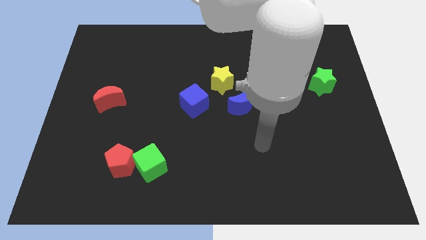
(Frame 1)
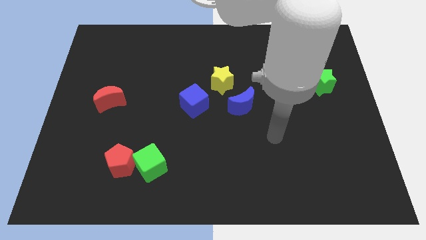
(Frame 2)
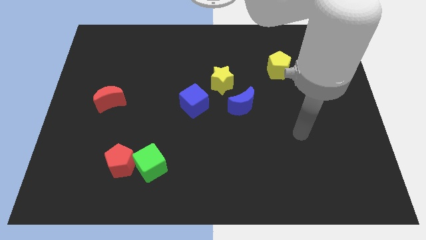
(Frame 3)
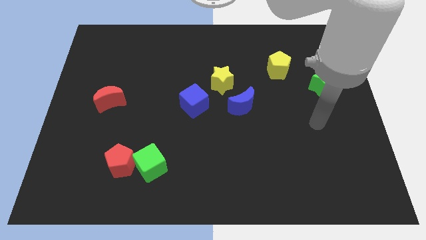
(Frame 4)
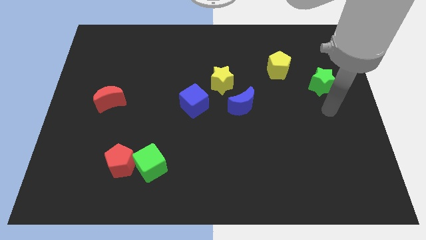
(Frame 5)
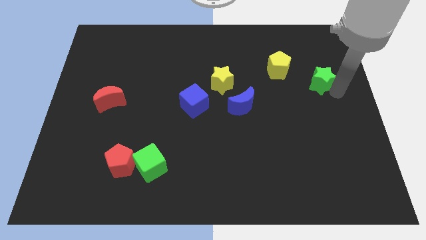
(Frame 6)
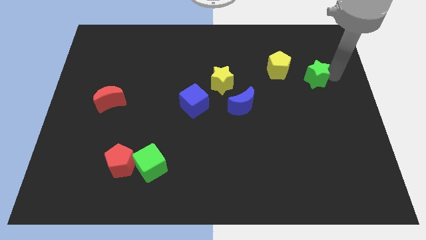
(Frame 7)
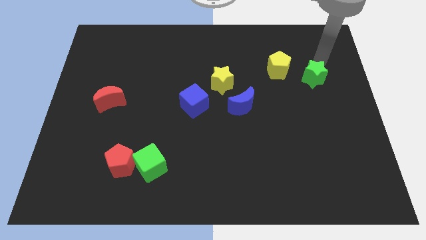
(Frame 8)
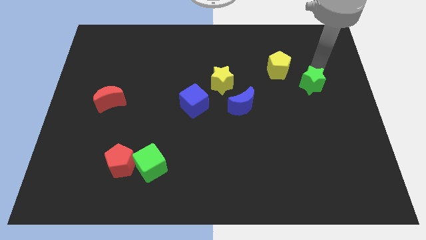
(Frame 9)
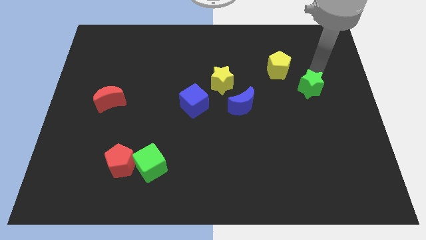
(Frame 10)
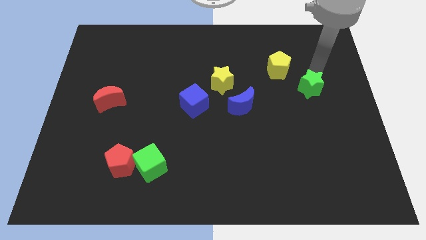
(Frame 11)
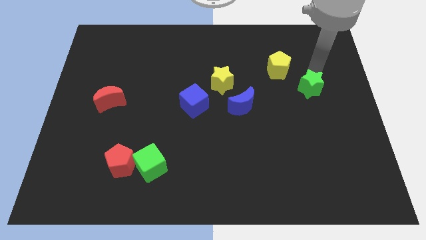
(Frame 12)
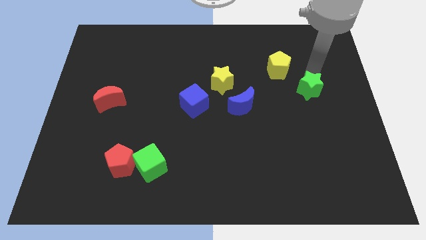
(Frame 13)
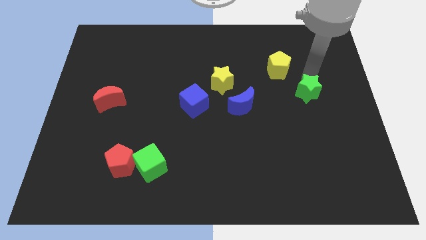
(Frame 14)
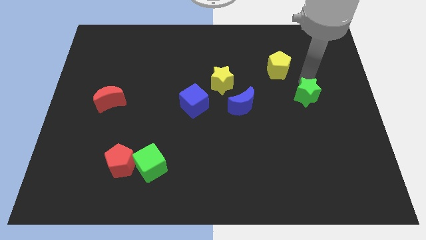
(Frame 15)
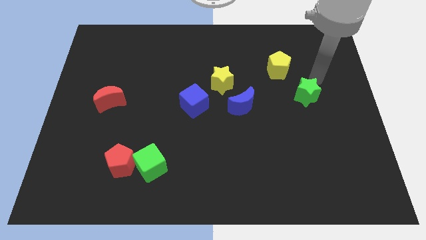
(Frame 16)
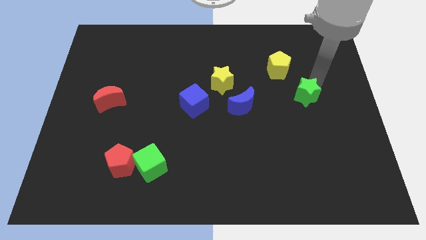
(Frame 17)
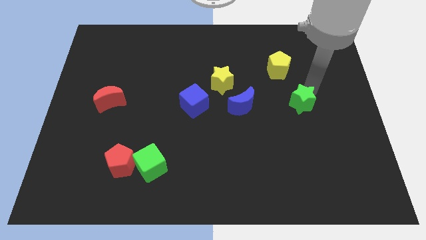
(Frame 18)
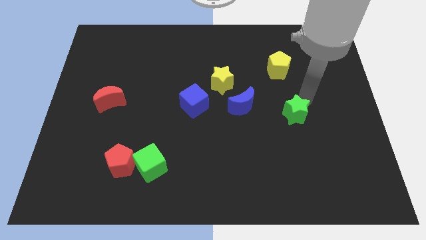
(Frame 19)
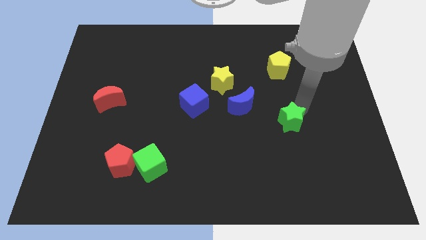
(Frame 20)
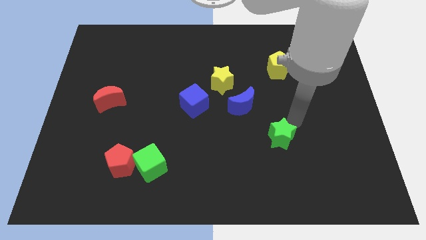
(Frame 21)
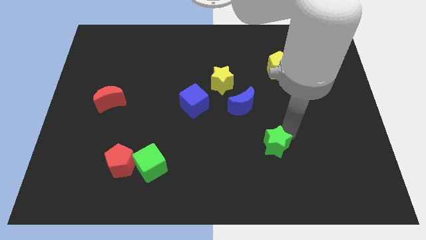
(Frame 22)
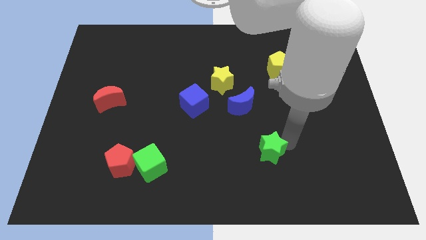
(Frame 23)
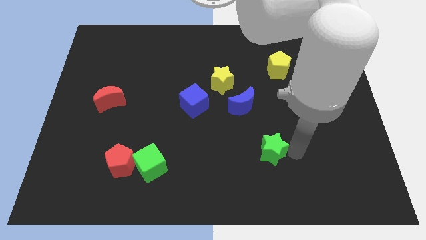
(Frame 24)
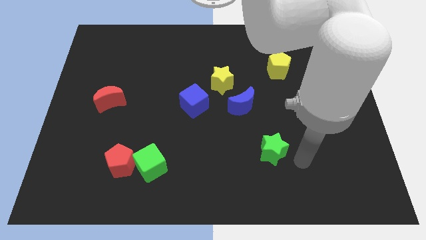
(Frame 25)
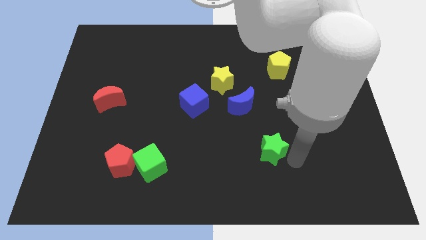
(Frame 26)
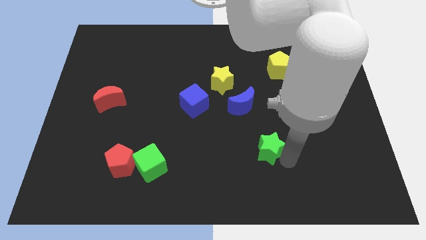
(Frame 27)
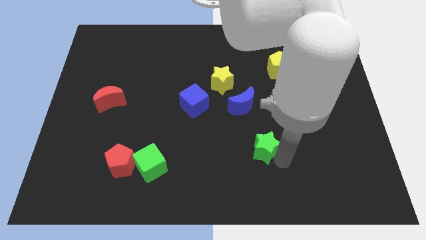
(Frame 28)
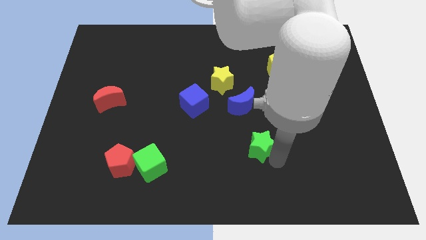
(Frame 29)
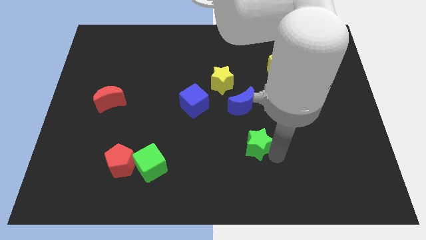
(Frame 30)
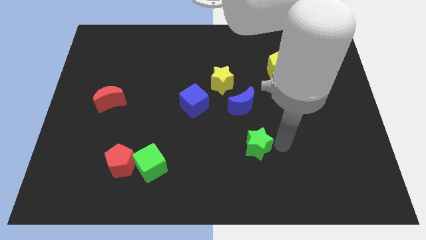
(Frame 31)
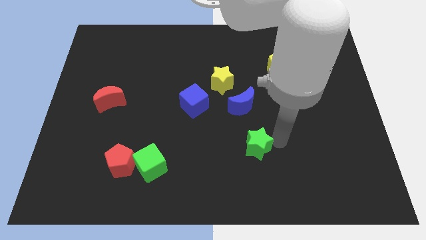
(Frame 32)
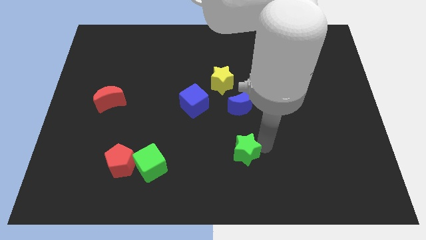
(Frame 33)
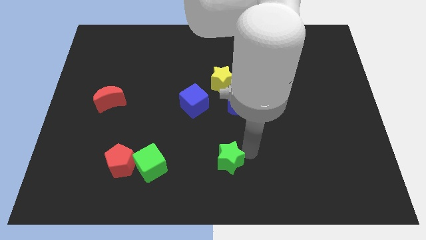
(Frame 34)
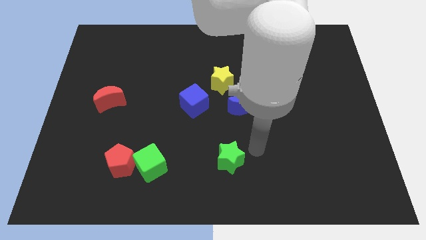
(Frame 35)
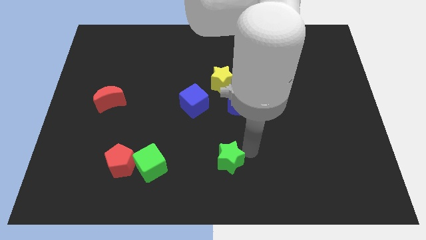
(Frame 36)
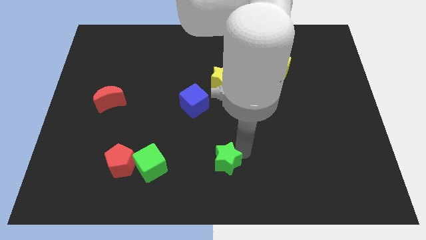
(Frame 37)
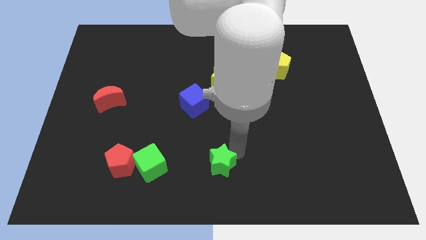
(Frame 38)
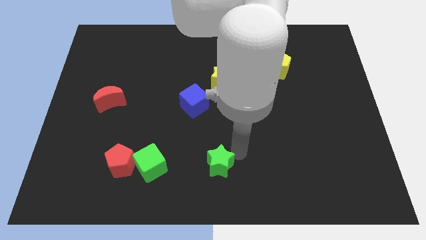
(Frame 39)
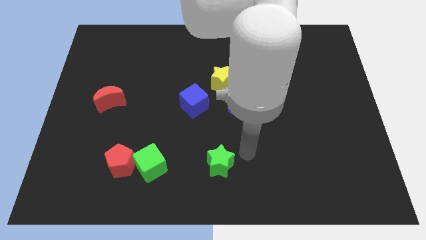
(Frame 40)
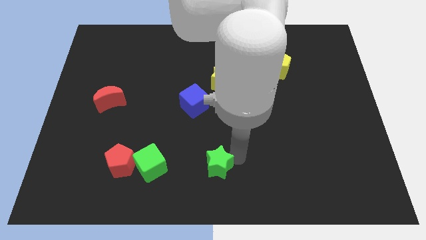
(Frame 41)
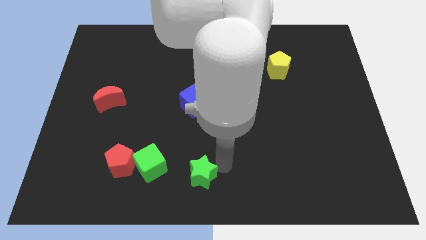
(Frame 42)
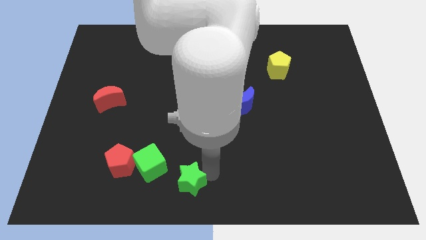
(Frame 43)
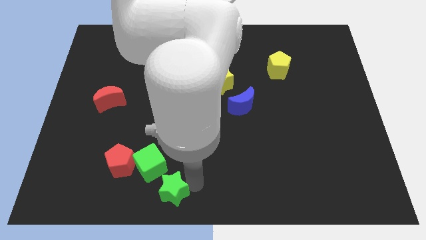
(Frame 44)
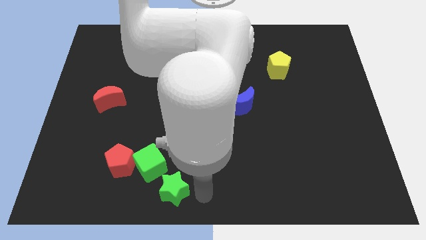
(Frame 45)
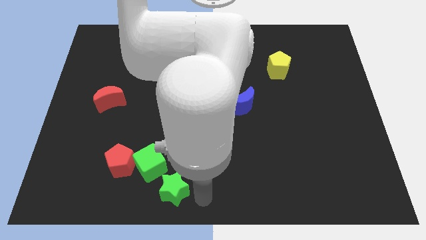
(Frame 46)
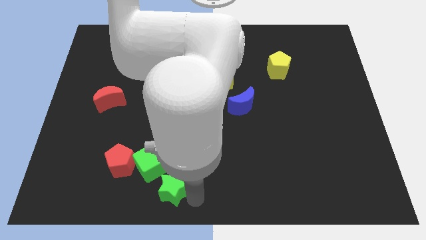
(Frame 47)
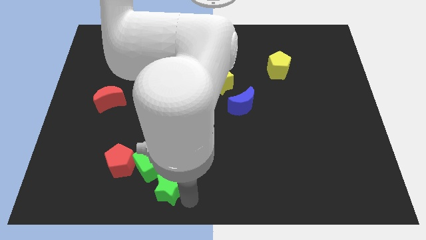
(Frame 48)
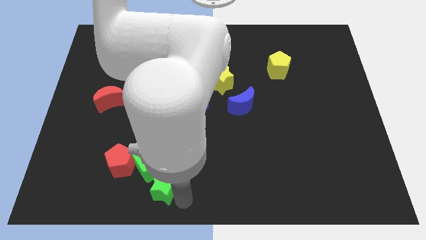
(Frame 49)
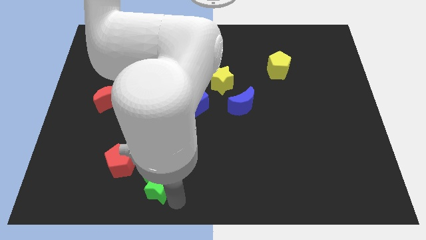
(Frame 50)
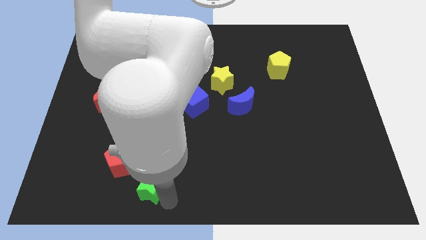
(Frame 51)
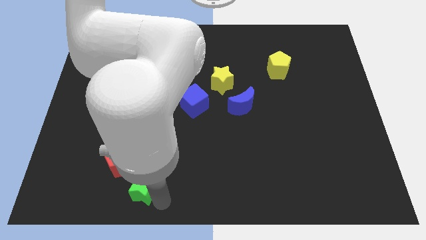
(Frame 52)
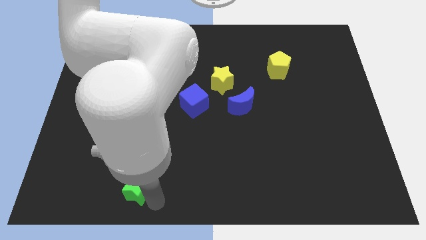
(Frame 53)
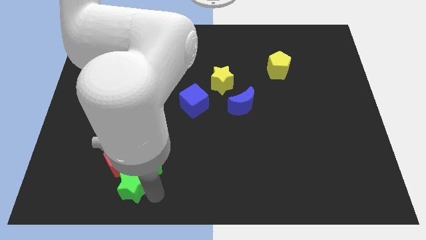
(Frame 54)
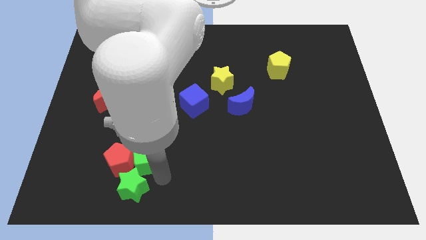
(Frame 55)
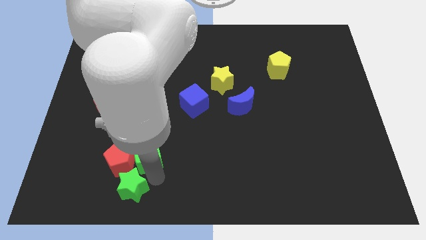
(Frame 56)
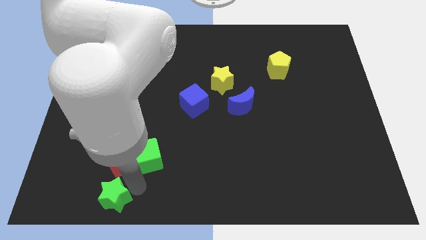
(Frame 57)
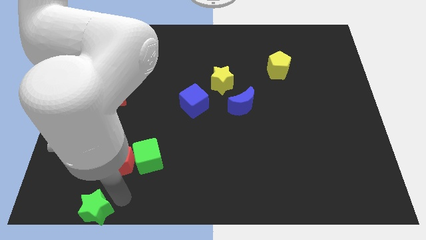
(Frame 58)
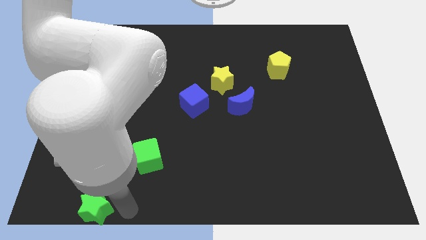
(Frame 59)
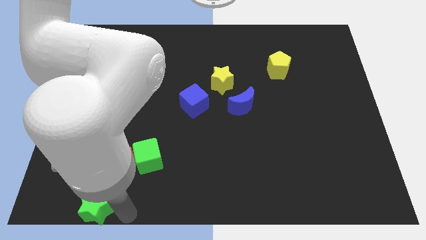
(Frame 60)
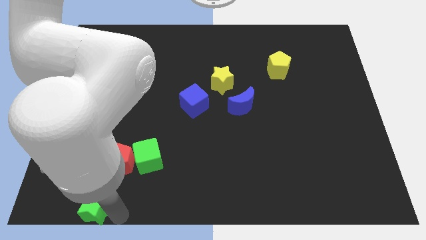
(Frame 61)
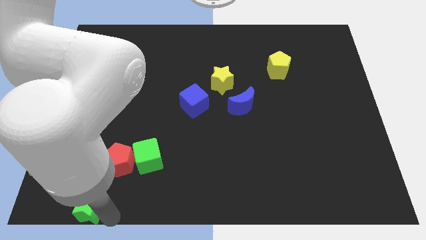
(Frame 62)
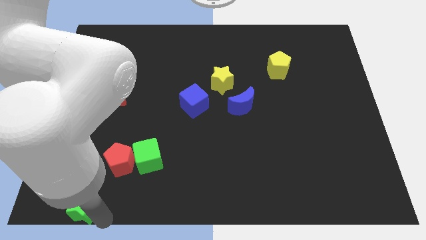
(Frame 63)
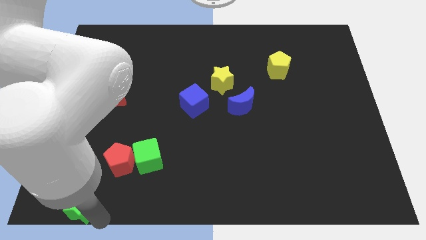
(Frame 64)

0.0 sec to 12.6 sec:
move the green star to the lower left corner
